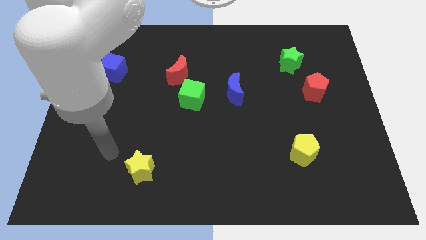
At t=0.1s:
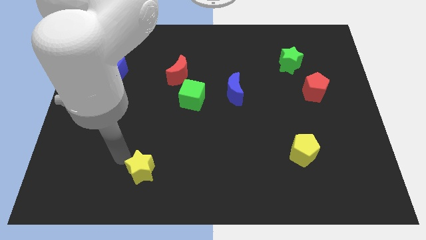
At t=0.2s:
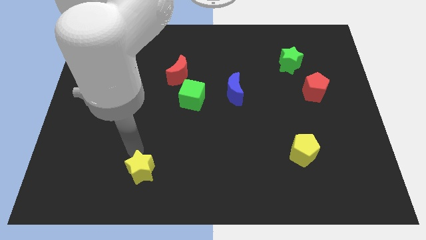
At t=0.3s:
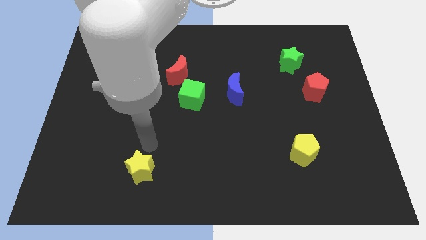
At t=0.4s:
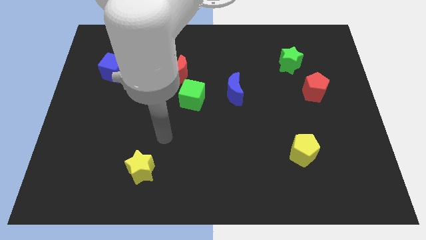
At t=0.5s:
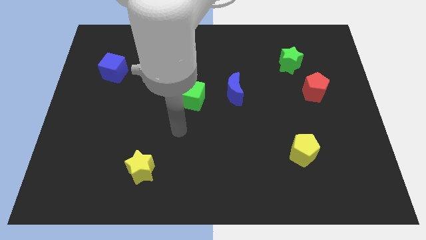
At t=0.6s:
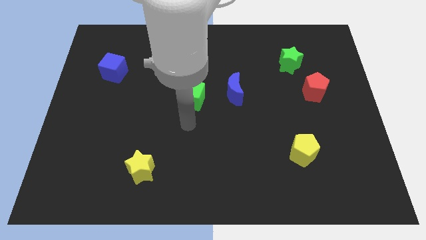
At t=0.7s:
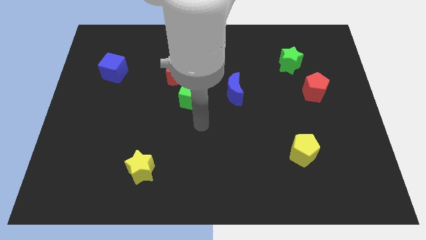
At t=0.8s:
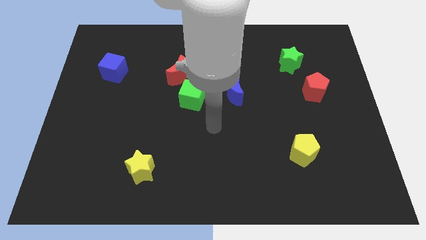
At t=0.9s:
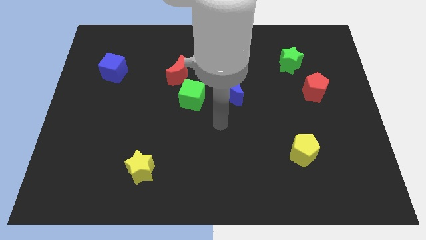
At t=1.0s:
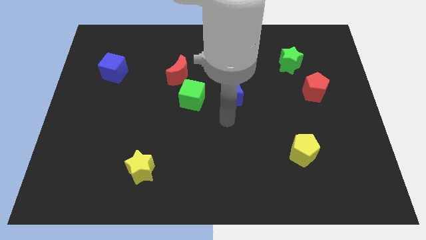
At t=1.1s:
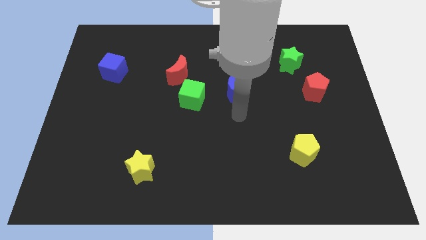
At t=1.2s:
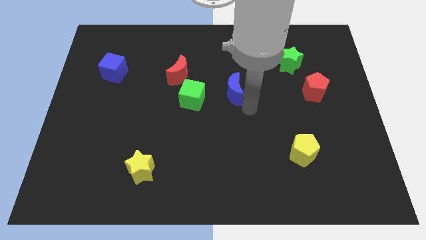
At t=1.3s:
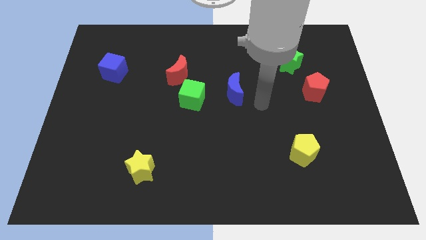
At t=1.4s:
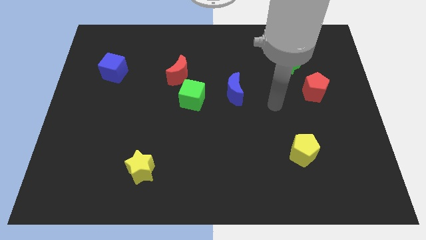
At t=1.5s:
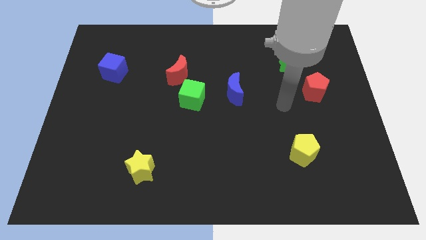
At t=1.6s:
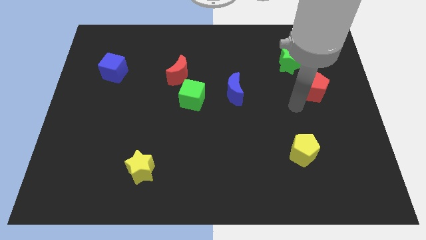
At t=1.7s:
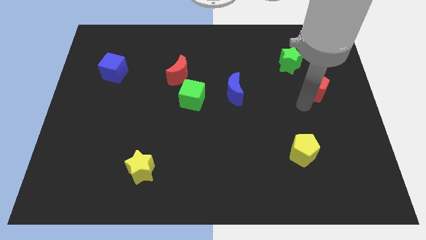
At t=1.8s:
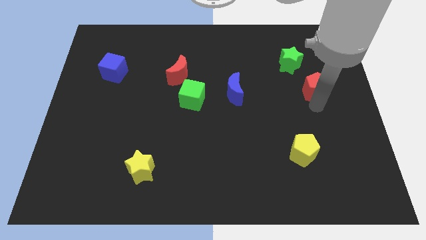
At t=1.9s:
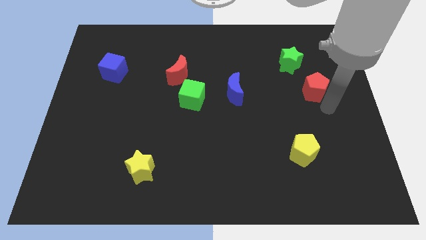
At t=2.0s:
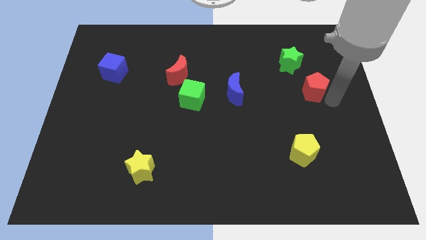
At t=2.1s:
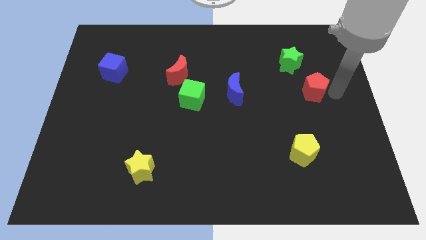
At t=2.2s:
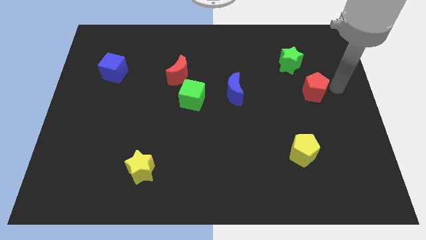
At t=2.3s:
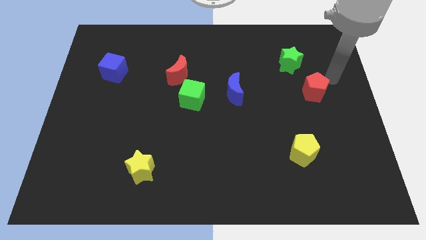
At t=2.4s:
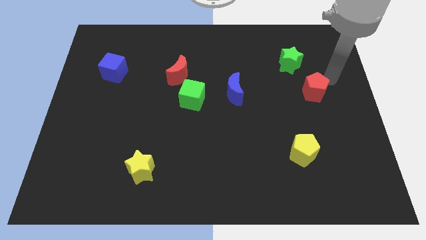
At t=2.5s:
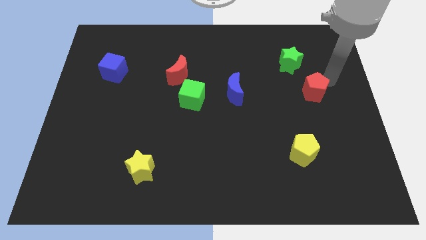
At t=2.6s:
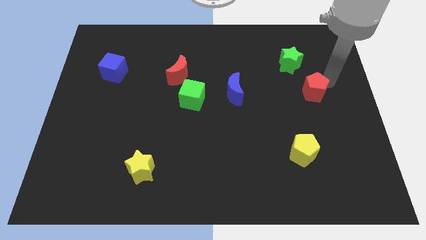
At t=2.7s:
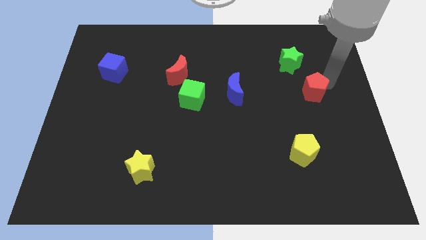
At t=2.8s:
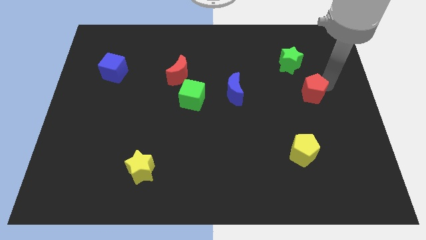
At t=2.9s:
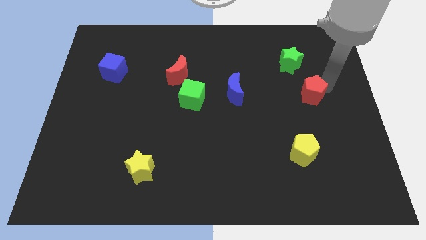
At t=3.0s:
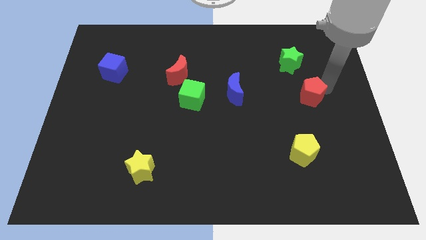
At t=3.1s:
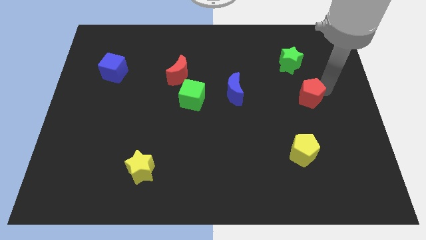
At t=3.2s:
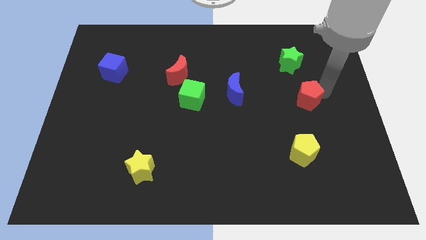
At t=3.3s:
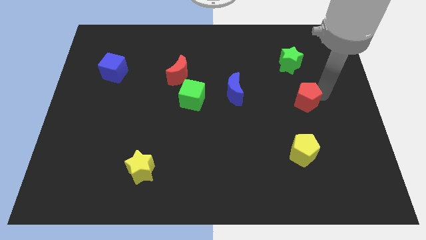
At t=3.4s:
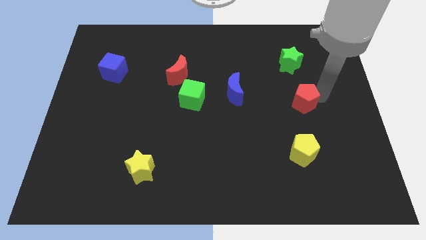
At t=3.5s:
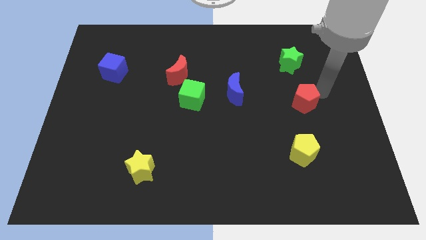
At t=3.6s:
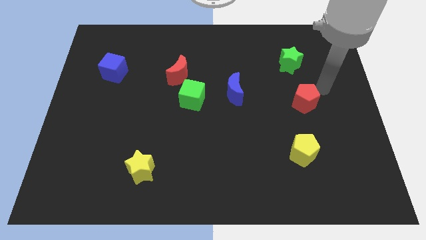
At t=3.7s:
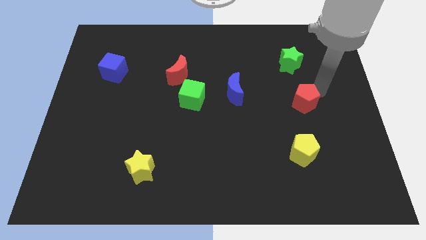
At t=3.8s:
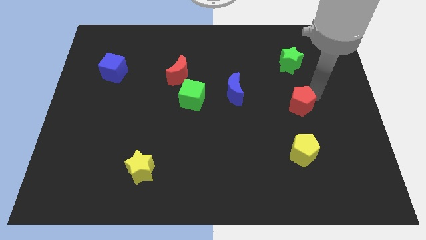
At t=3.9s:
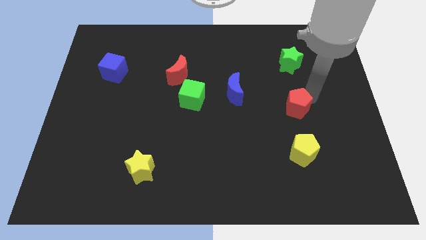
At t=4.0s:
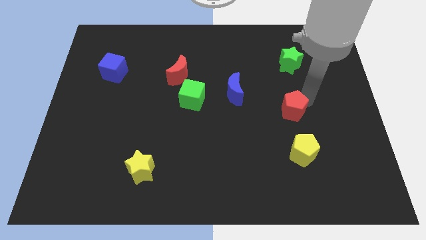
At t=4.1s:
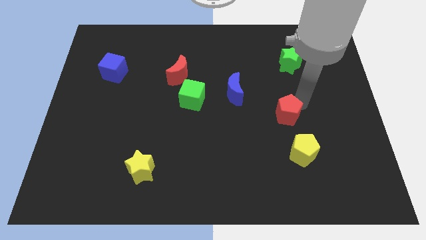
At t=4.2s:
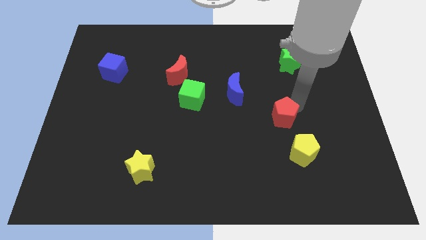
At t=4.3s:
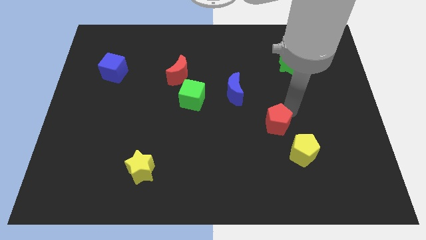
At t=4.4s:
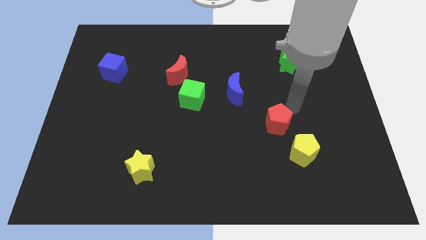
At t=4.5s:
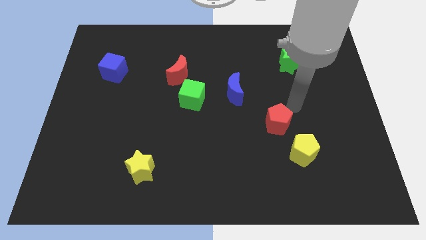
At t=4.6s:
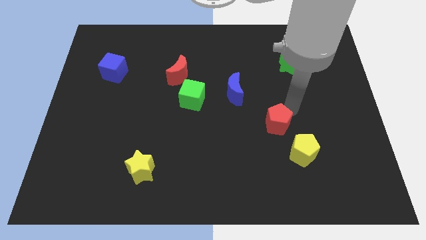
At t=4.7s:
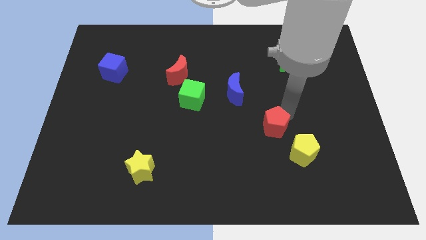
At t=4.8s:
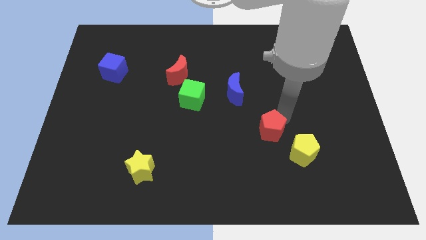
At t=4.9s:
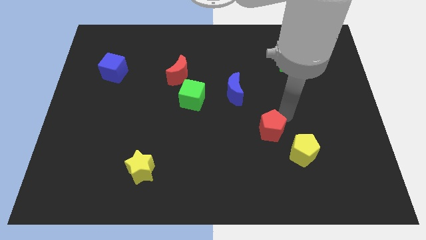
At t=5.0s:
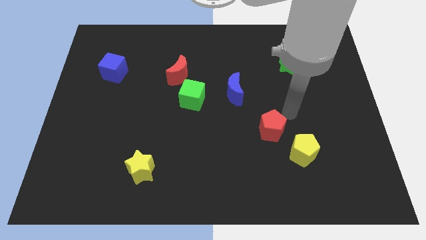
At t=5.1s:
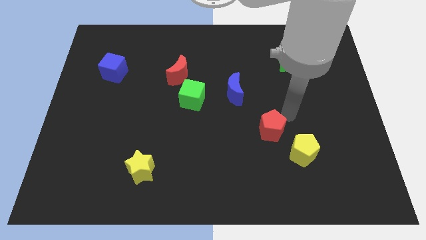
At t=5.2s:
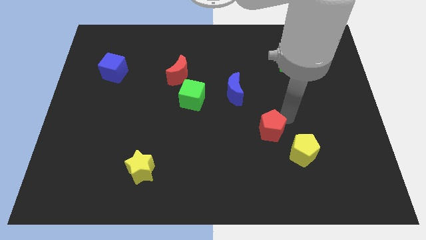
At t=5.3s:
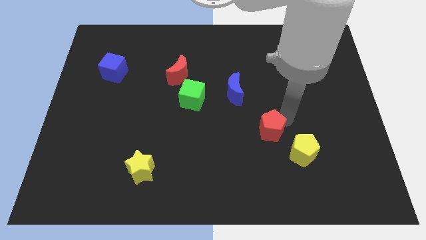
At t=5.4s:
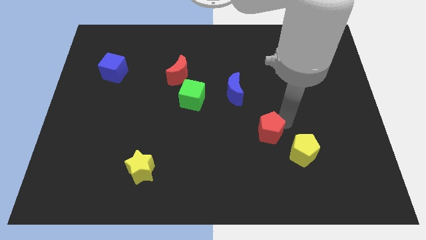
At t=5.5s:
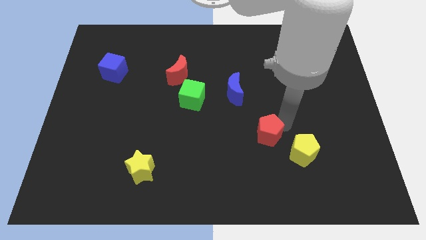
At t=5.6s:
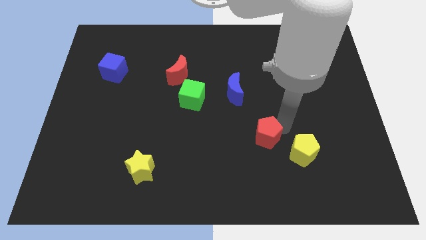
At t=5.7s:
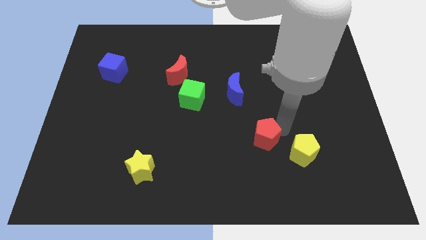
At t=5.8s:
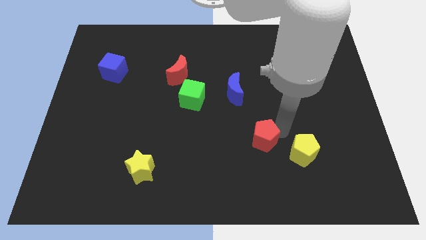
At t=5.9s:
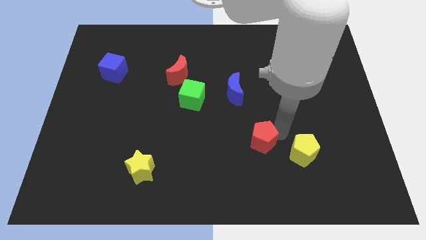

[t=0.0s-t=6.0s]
push the red pentagon diagonally downwards and to the left

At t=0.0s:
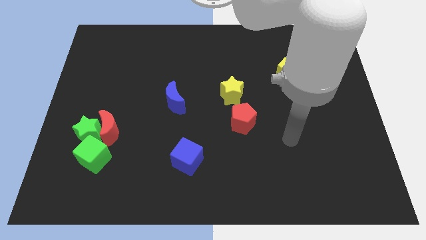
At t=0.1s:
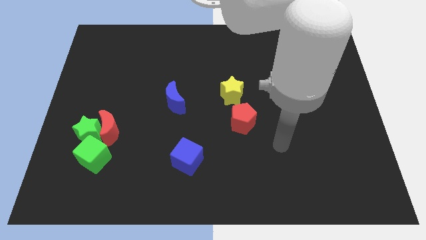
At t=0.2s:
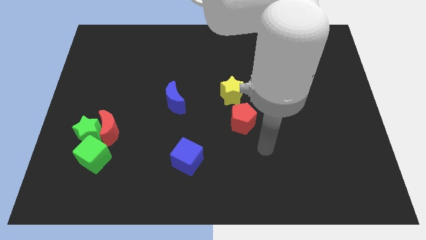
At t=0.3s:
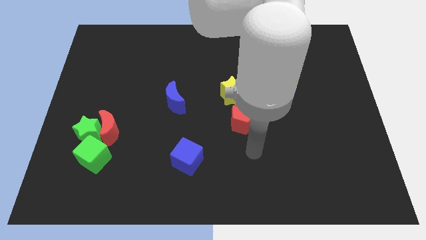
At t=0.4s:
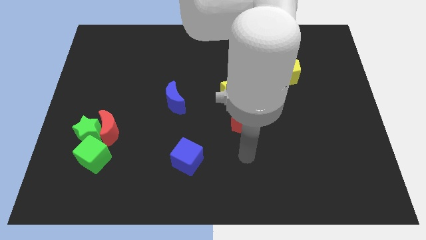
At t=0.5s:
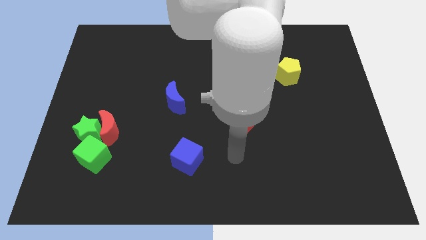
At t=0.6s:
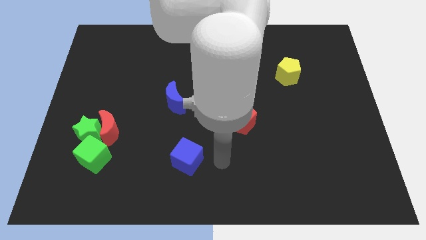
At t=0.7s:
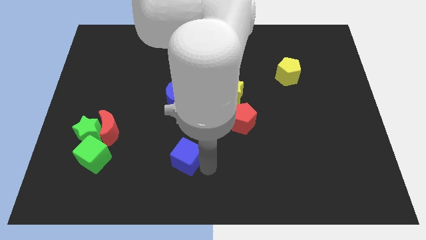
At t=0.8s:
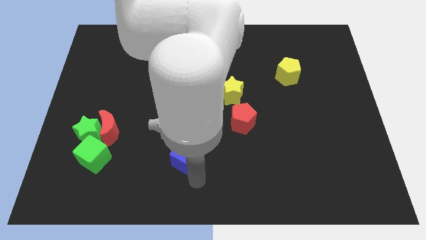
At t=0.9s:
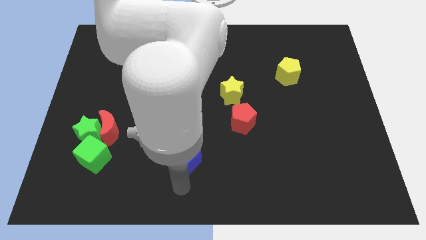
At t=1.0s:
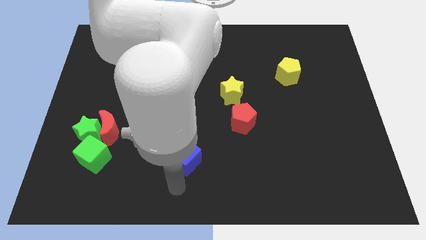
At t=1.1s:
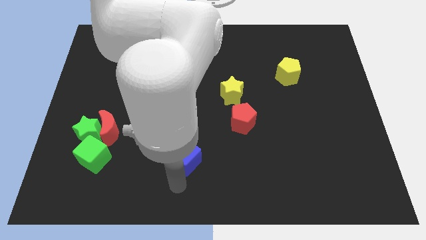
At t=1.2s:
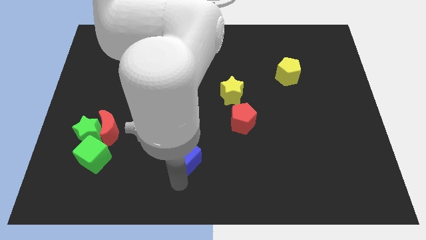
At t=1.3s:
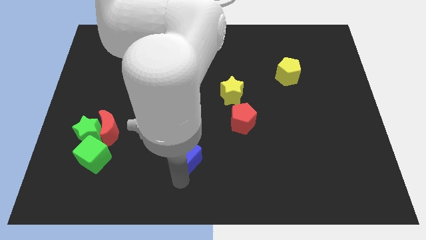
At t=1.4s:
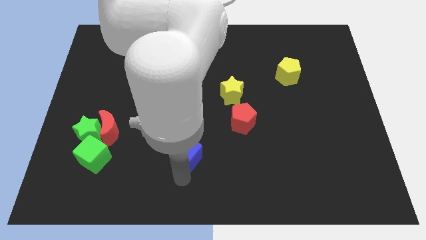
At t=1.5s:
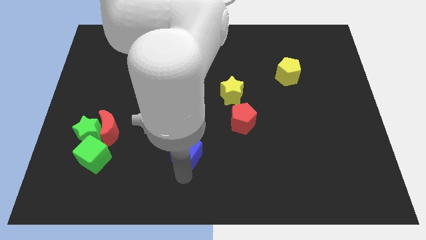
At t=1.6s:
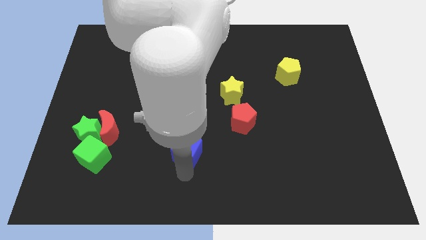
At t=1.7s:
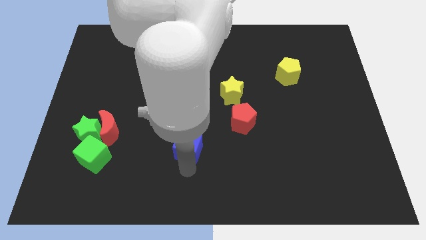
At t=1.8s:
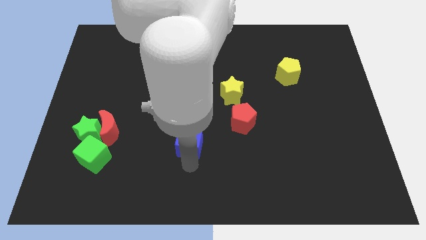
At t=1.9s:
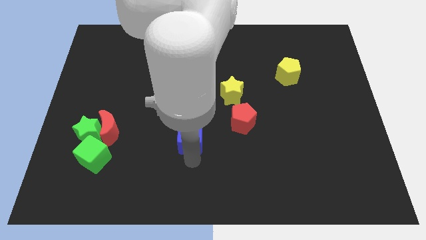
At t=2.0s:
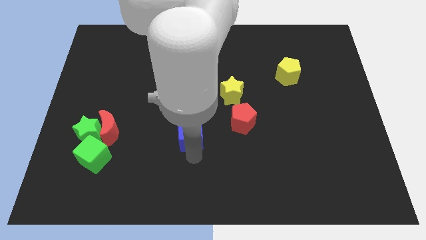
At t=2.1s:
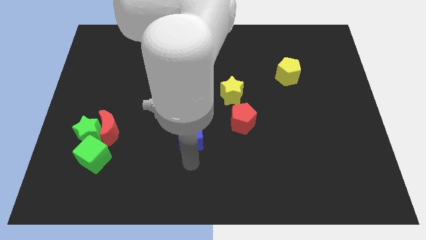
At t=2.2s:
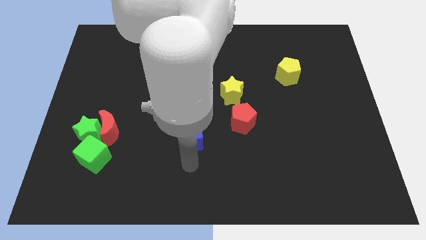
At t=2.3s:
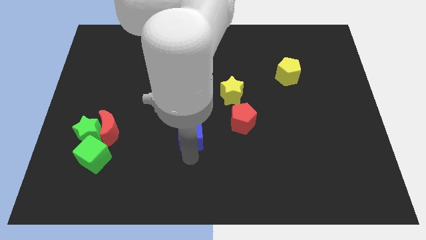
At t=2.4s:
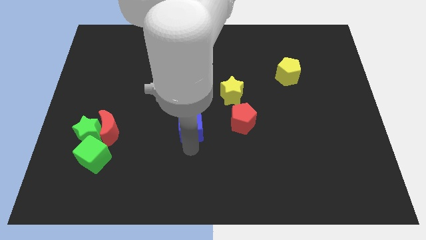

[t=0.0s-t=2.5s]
slightly slide the blue cube upwards
